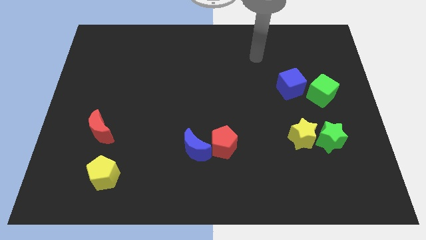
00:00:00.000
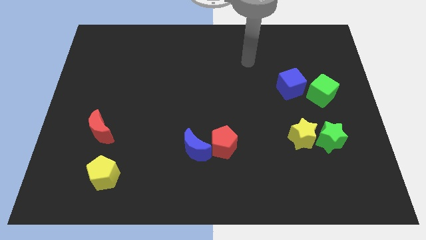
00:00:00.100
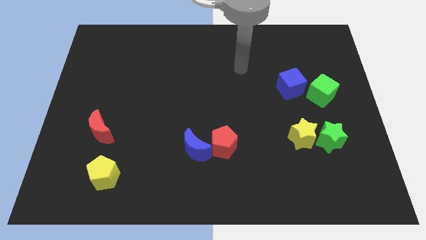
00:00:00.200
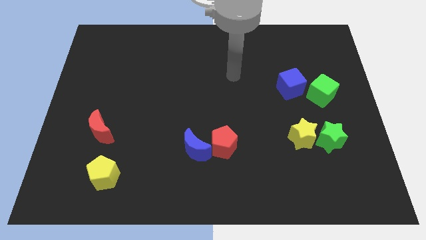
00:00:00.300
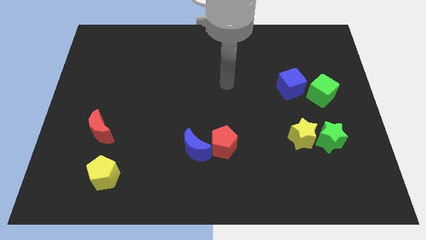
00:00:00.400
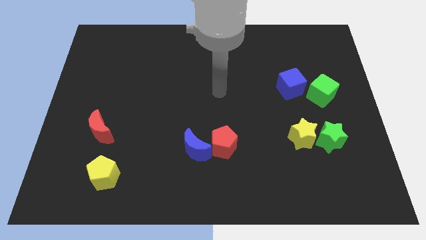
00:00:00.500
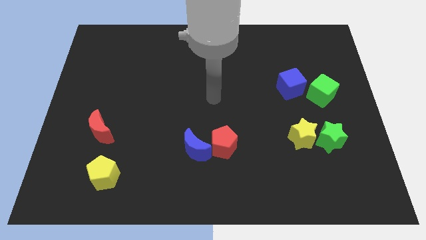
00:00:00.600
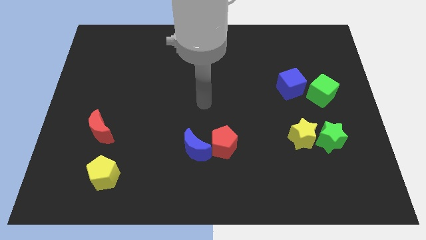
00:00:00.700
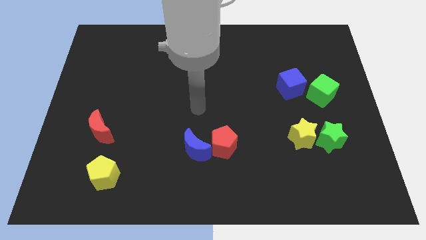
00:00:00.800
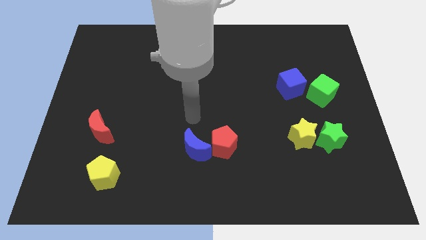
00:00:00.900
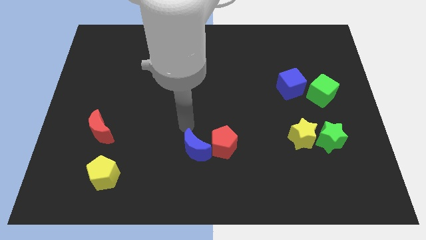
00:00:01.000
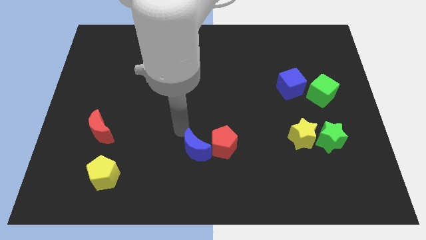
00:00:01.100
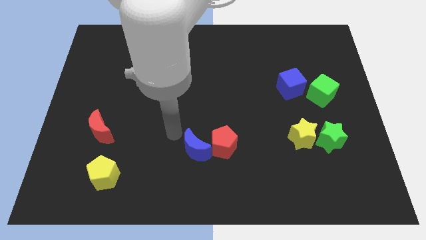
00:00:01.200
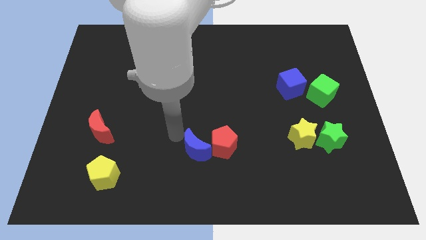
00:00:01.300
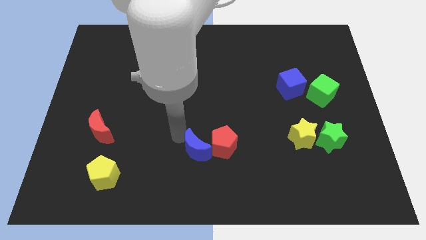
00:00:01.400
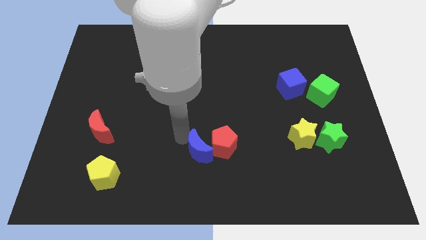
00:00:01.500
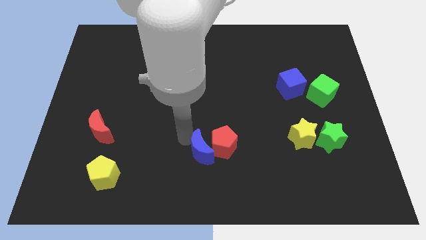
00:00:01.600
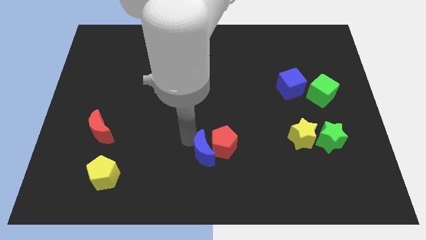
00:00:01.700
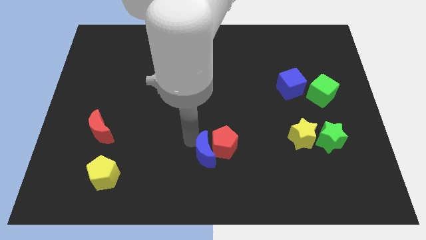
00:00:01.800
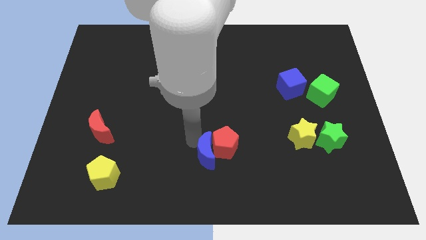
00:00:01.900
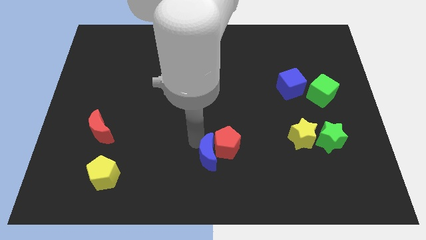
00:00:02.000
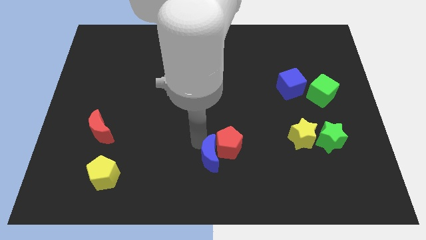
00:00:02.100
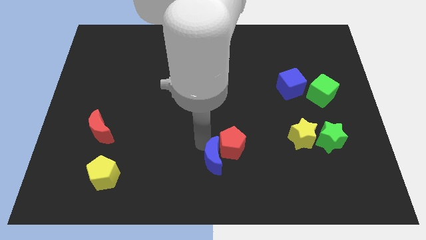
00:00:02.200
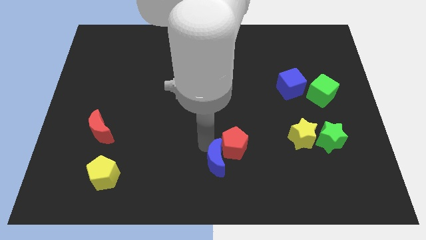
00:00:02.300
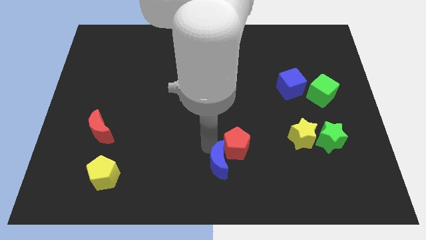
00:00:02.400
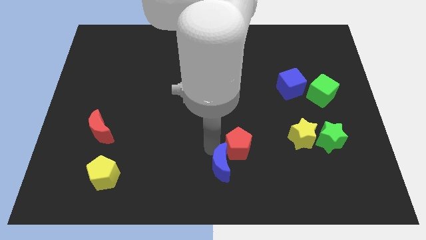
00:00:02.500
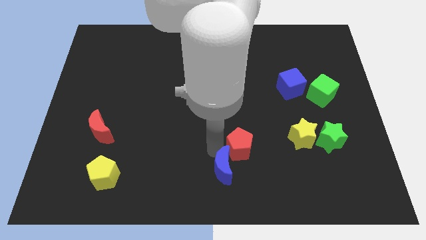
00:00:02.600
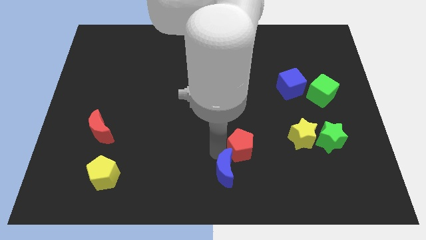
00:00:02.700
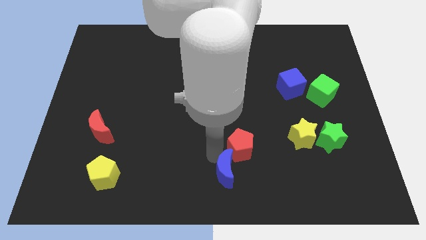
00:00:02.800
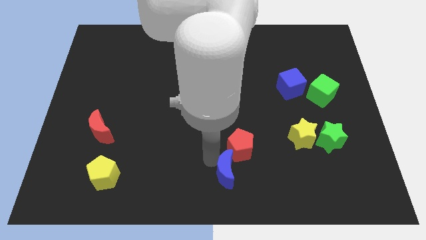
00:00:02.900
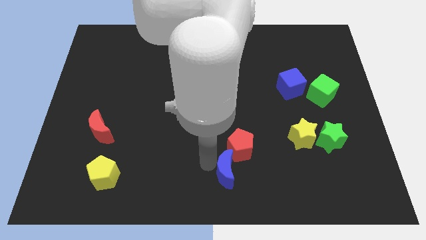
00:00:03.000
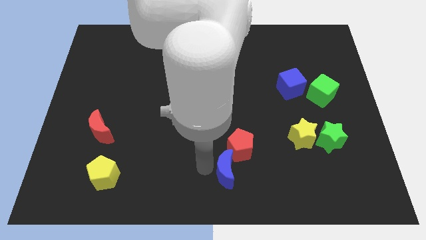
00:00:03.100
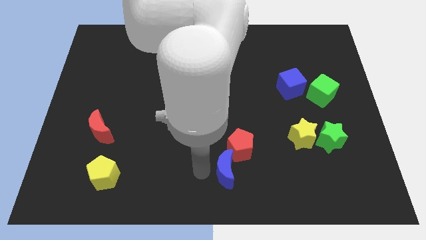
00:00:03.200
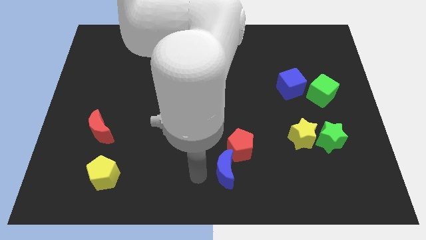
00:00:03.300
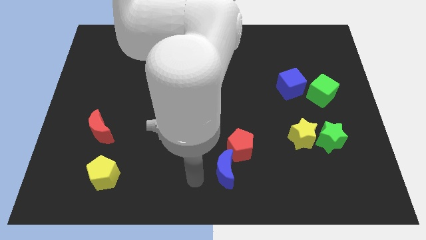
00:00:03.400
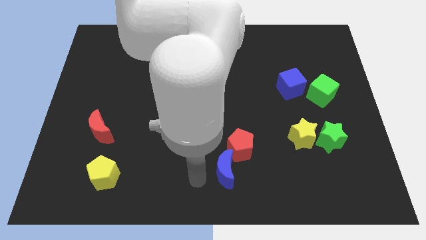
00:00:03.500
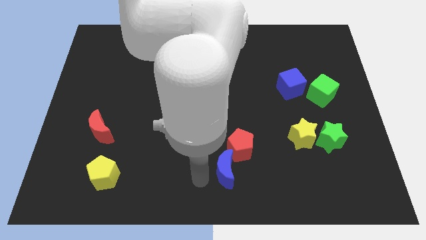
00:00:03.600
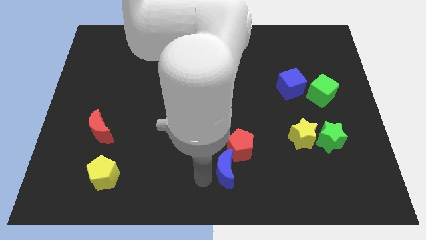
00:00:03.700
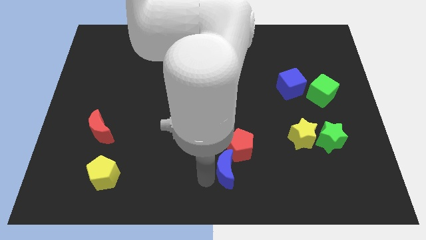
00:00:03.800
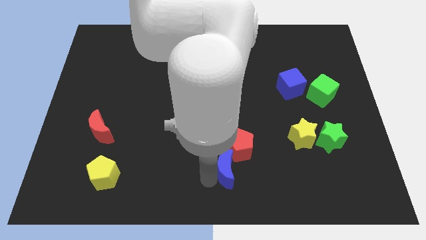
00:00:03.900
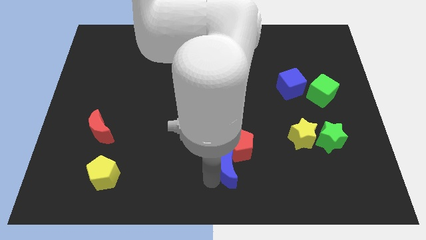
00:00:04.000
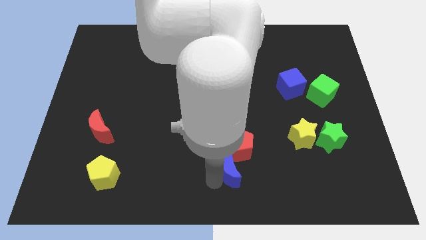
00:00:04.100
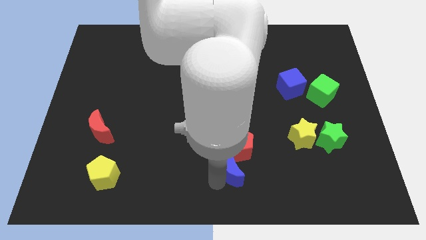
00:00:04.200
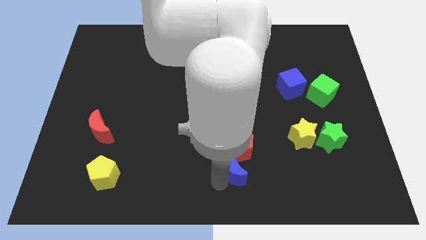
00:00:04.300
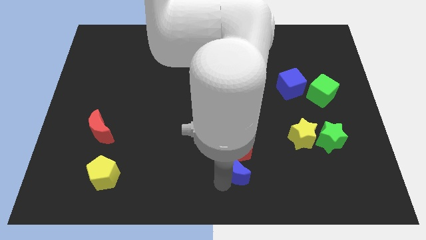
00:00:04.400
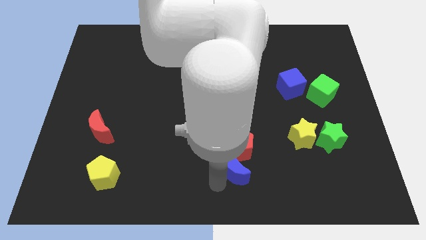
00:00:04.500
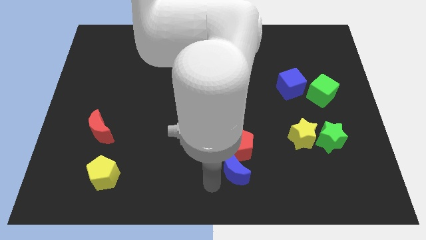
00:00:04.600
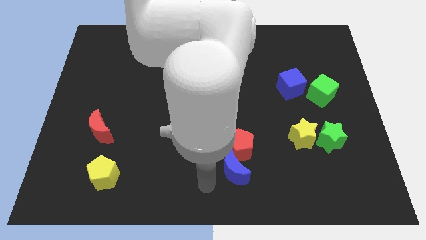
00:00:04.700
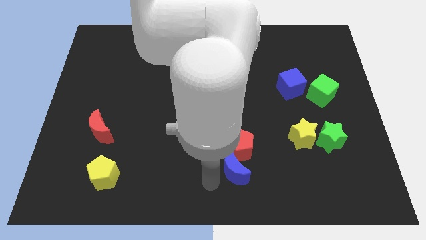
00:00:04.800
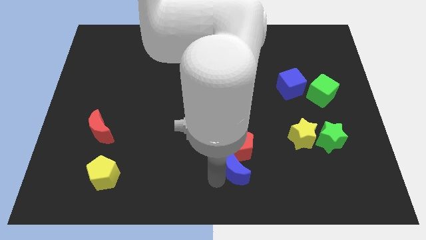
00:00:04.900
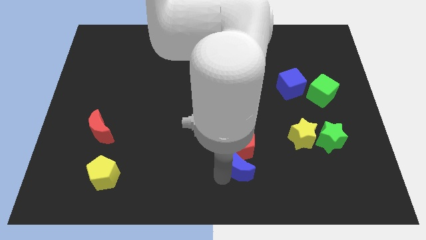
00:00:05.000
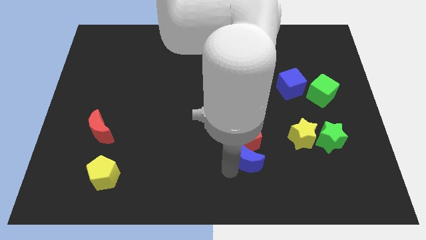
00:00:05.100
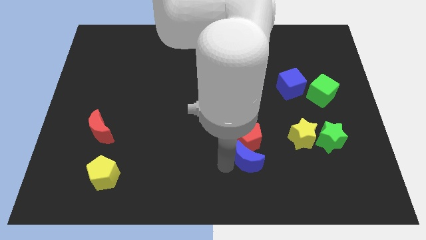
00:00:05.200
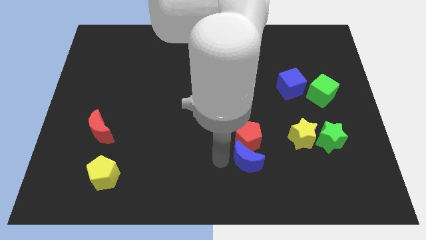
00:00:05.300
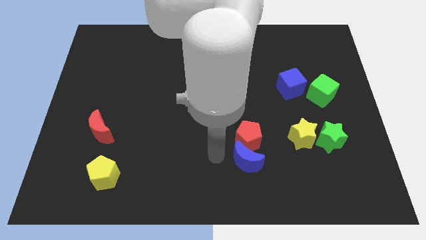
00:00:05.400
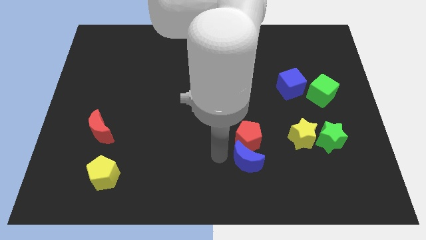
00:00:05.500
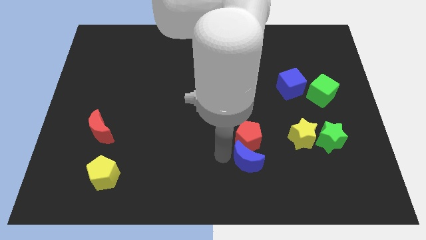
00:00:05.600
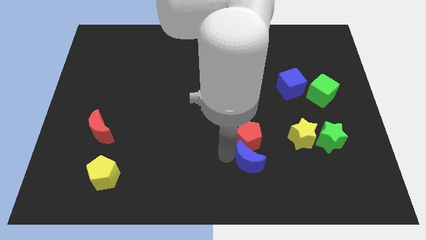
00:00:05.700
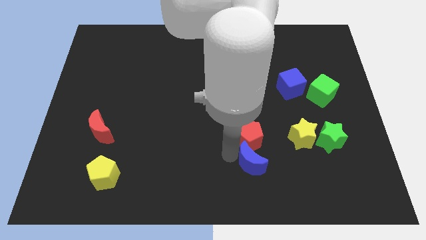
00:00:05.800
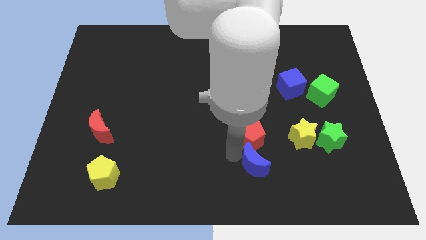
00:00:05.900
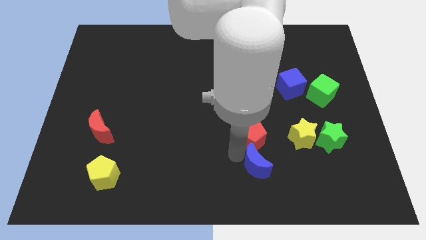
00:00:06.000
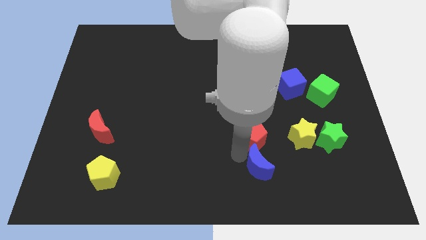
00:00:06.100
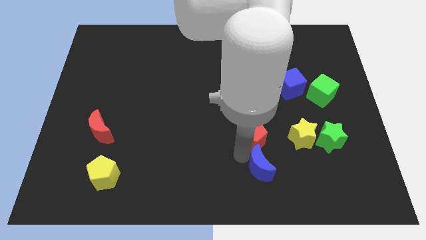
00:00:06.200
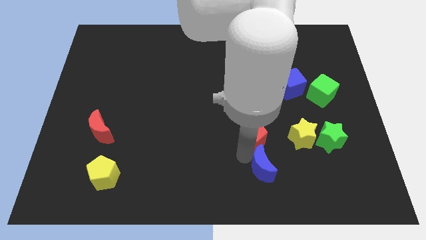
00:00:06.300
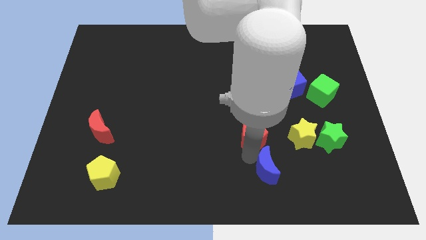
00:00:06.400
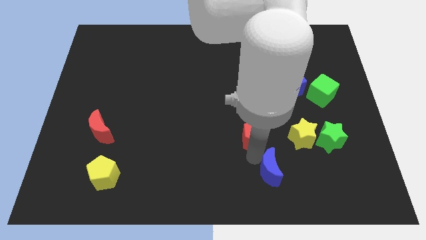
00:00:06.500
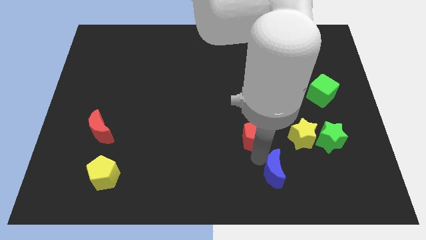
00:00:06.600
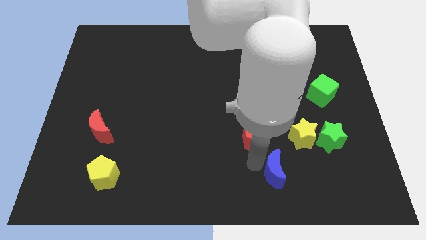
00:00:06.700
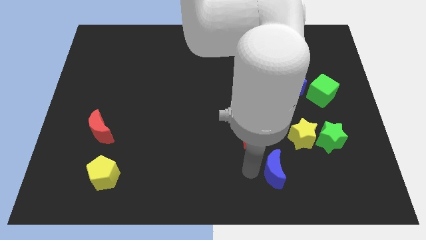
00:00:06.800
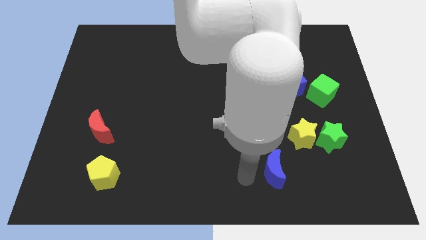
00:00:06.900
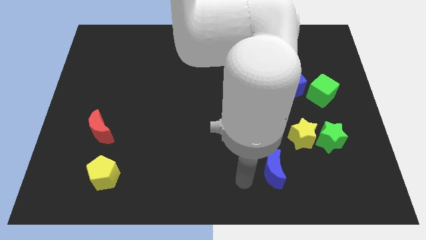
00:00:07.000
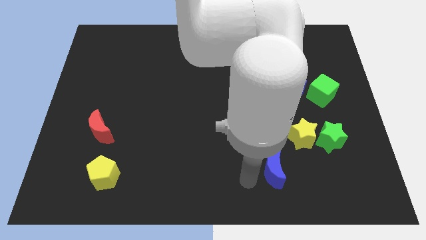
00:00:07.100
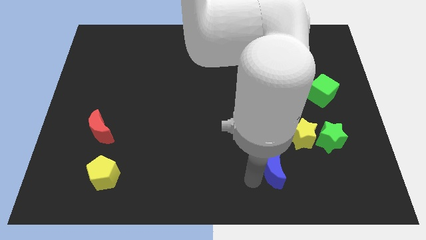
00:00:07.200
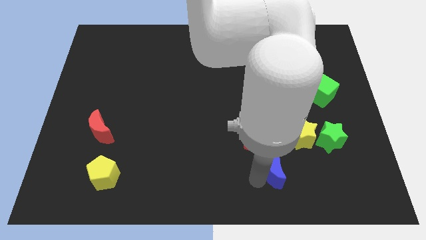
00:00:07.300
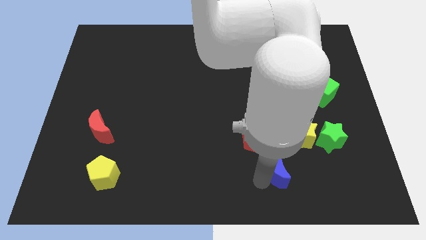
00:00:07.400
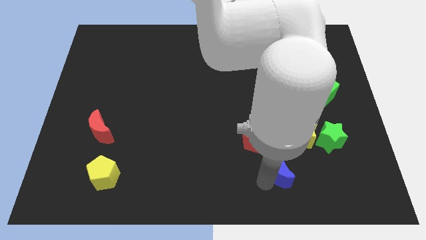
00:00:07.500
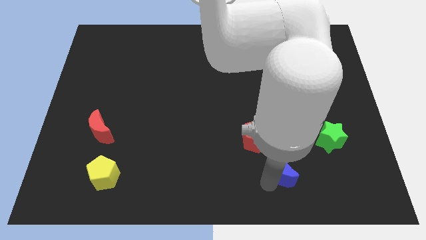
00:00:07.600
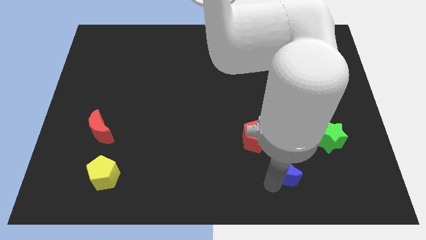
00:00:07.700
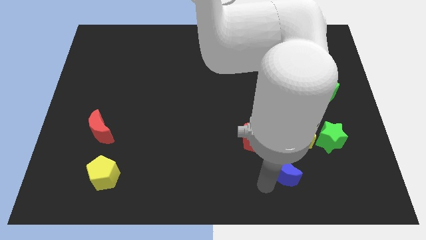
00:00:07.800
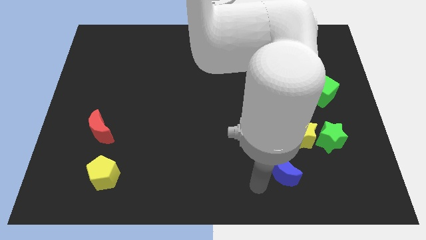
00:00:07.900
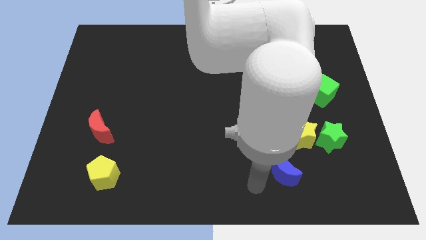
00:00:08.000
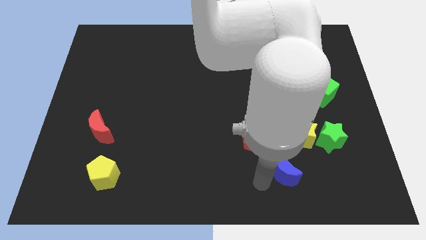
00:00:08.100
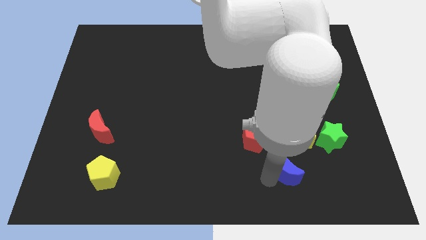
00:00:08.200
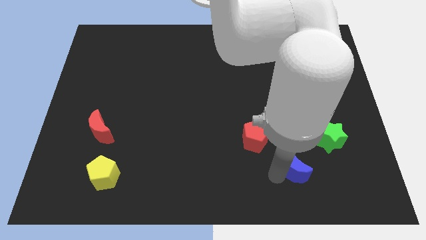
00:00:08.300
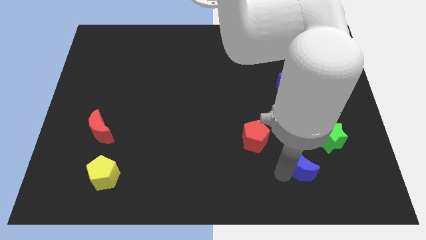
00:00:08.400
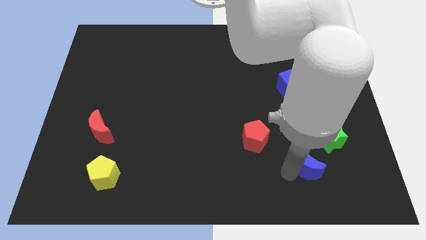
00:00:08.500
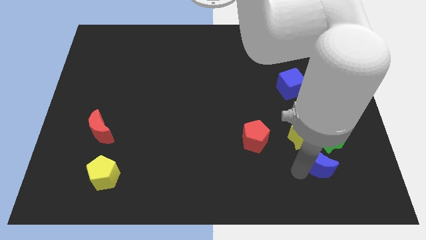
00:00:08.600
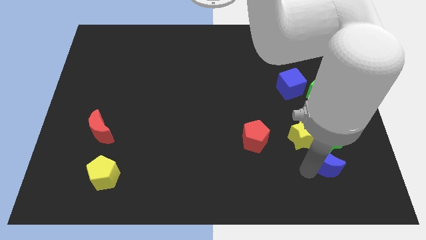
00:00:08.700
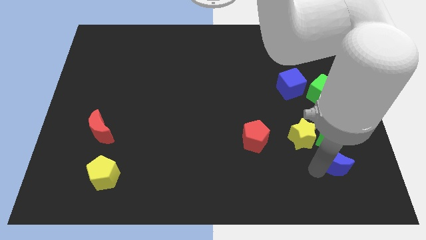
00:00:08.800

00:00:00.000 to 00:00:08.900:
move the blue moon to the green star
